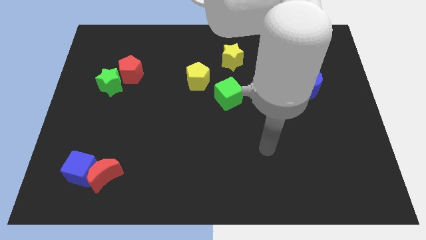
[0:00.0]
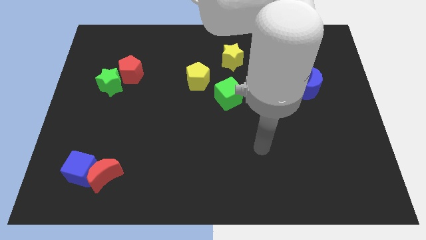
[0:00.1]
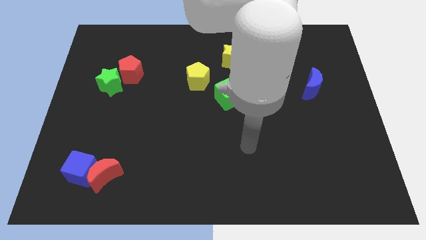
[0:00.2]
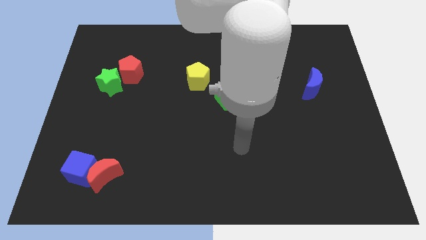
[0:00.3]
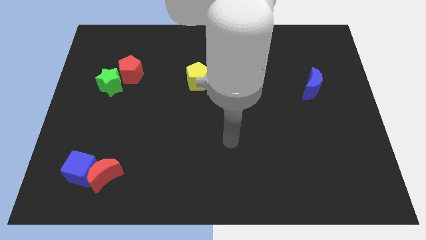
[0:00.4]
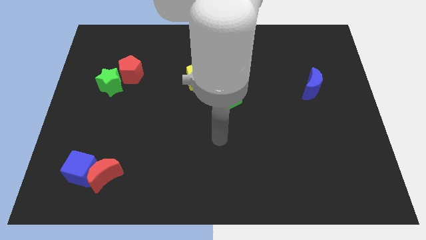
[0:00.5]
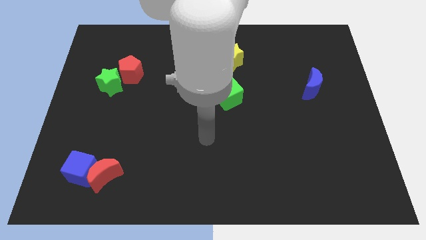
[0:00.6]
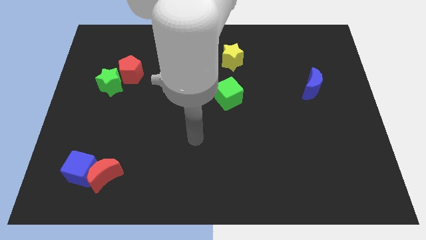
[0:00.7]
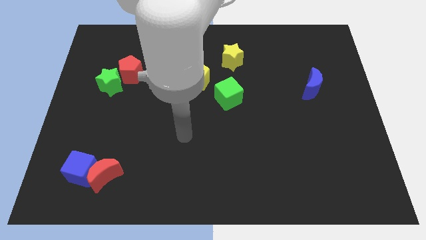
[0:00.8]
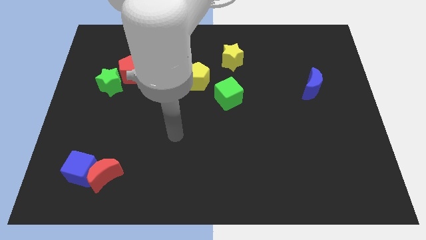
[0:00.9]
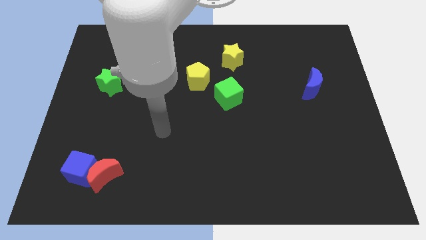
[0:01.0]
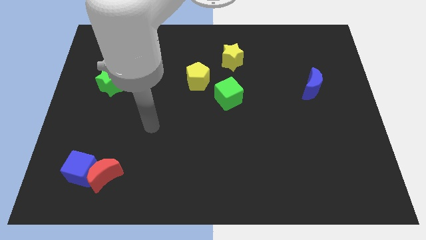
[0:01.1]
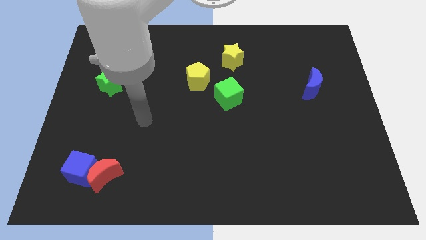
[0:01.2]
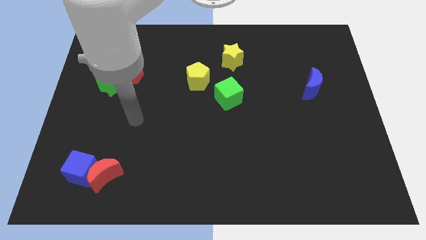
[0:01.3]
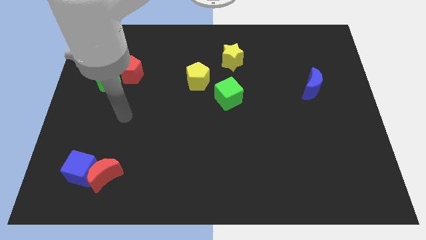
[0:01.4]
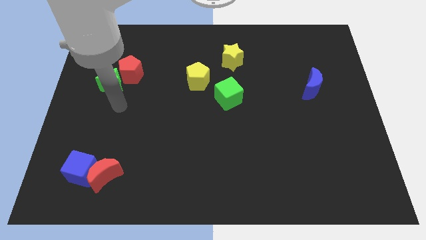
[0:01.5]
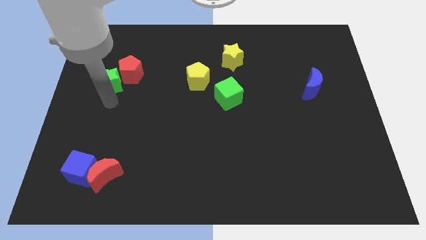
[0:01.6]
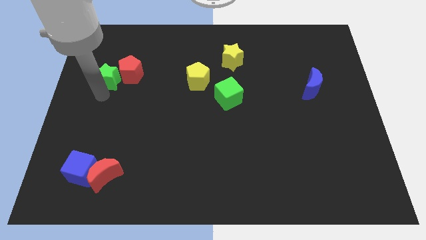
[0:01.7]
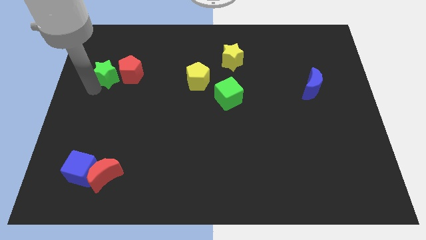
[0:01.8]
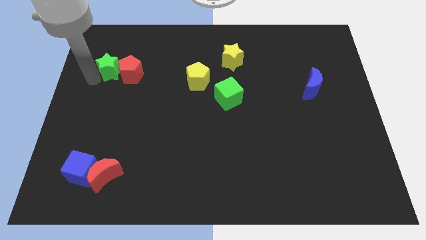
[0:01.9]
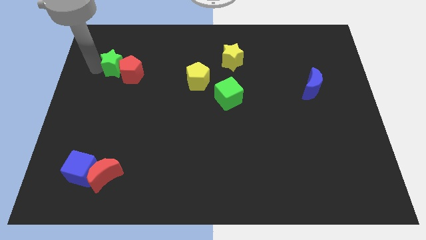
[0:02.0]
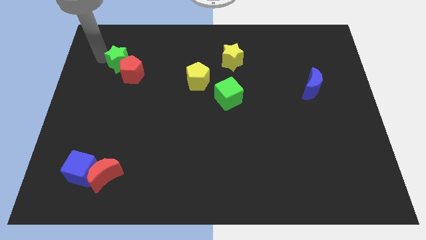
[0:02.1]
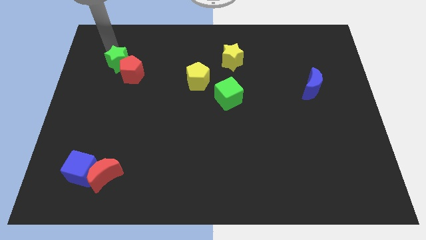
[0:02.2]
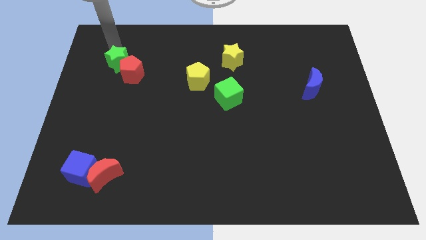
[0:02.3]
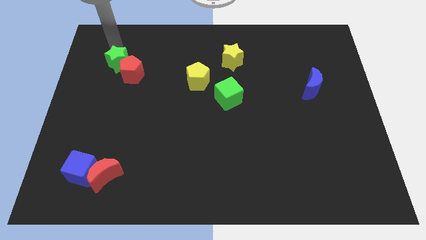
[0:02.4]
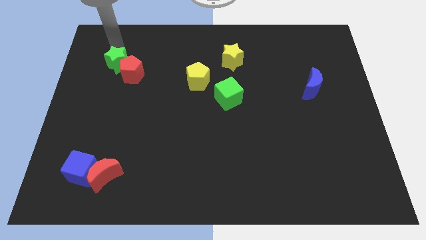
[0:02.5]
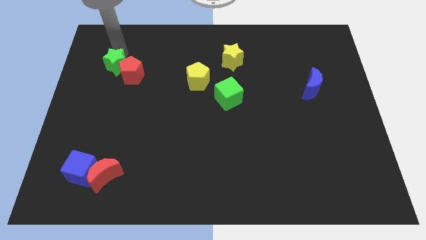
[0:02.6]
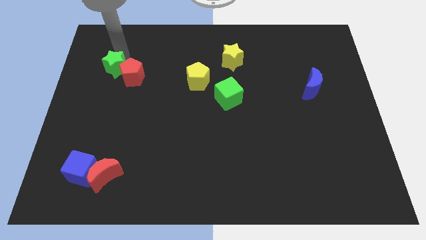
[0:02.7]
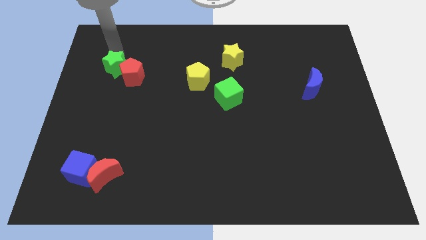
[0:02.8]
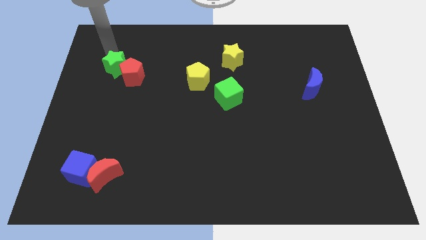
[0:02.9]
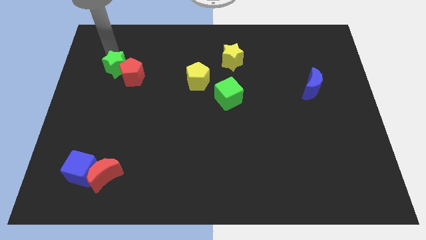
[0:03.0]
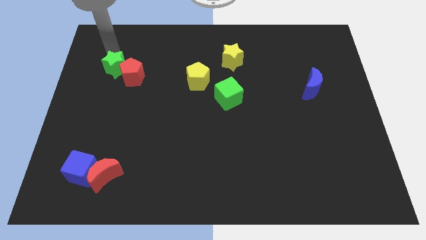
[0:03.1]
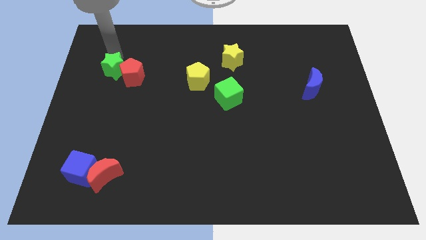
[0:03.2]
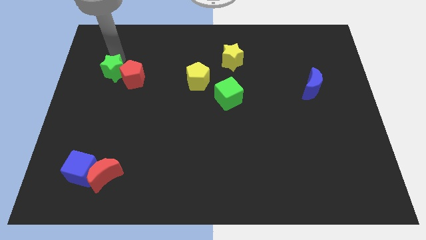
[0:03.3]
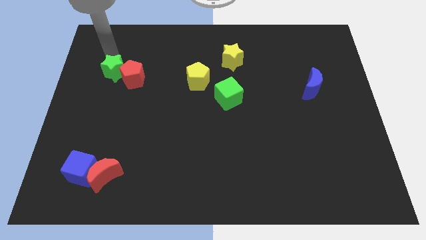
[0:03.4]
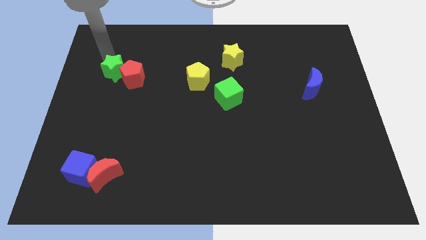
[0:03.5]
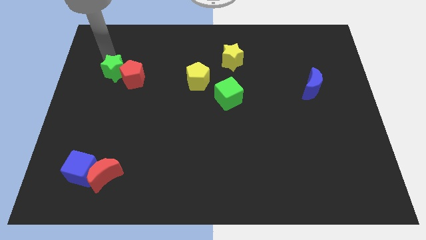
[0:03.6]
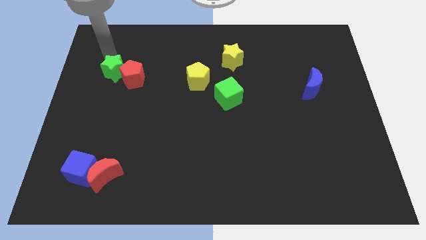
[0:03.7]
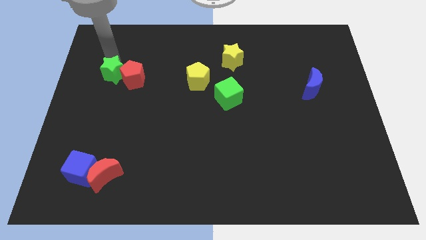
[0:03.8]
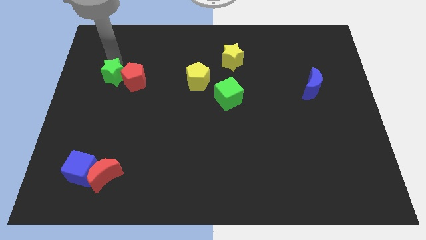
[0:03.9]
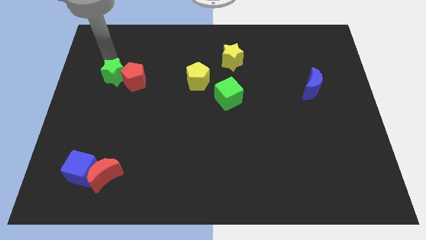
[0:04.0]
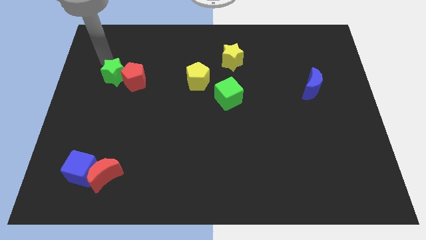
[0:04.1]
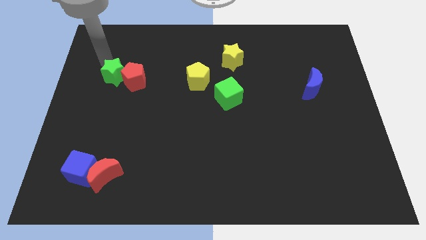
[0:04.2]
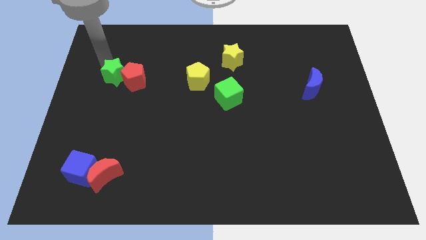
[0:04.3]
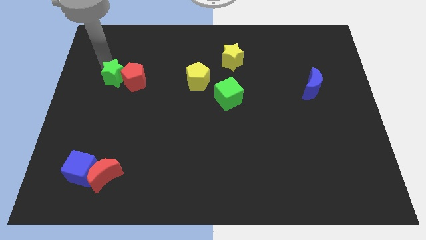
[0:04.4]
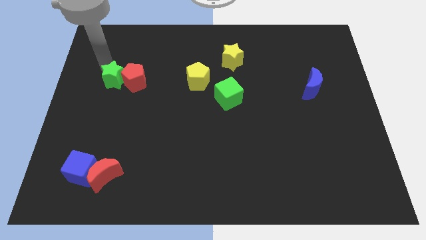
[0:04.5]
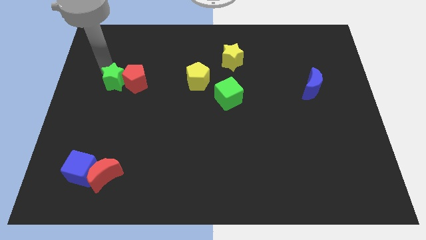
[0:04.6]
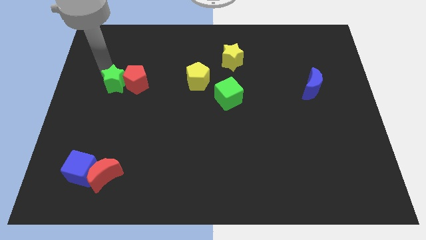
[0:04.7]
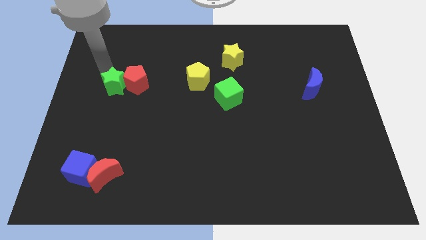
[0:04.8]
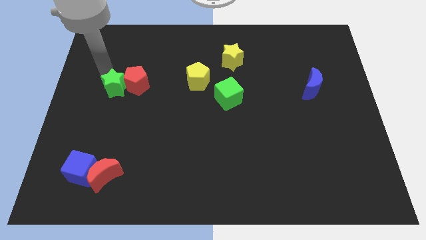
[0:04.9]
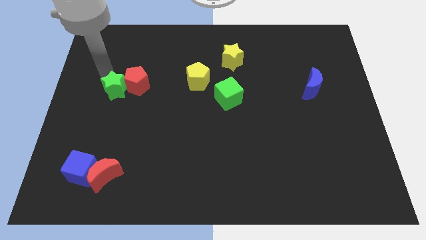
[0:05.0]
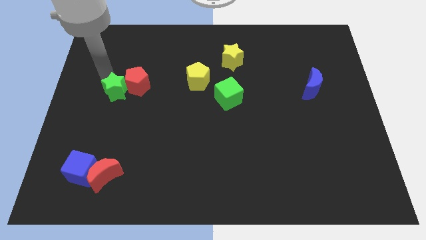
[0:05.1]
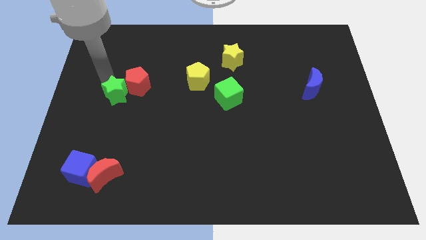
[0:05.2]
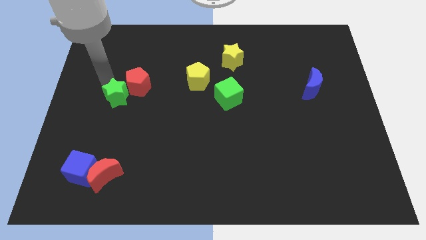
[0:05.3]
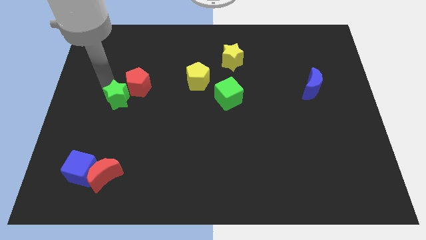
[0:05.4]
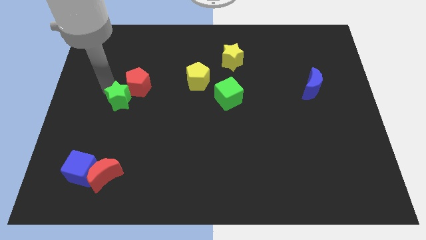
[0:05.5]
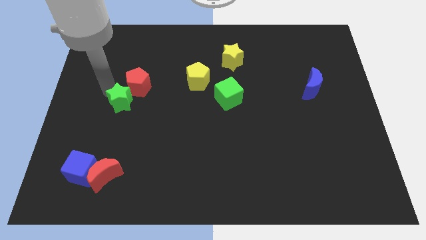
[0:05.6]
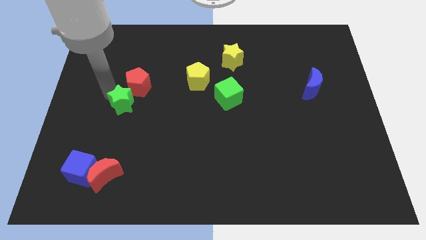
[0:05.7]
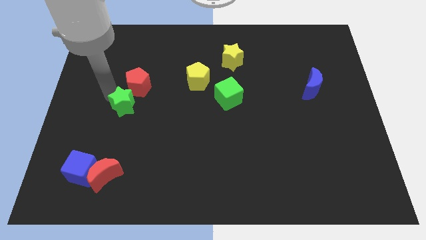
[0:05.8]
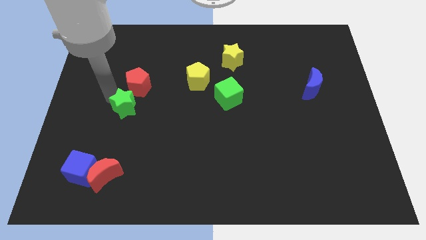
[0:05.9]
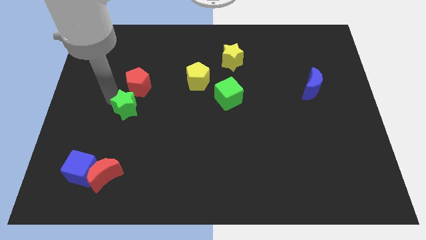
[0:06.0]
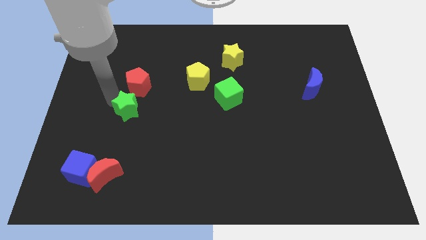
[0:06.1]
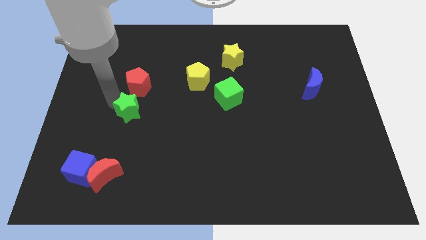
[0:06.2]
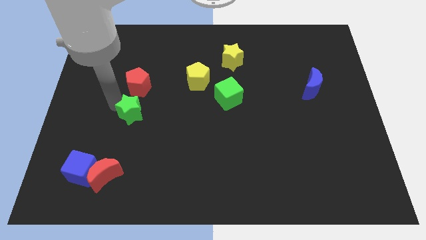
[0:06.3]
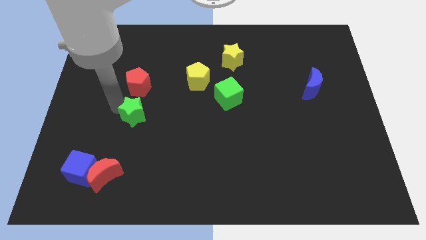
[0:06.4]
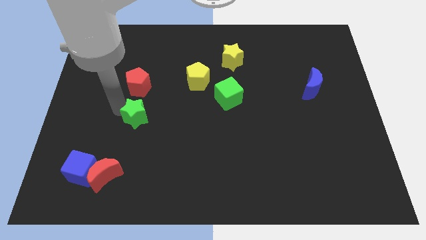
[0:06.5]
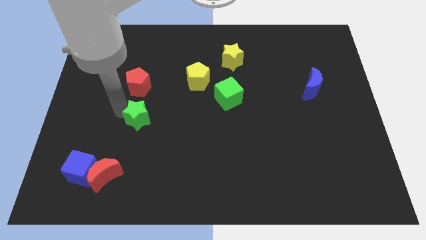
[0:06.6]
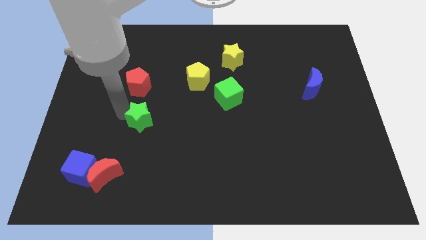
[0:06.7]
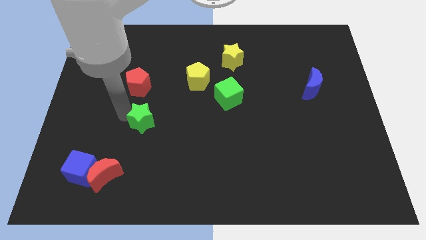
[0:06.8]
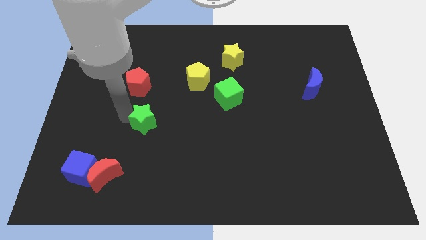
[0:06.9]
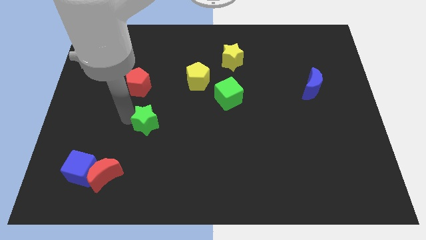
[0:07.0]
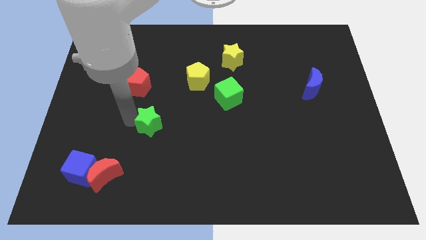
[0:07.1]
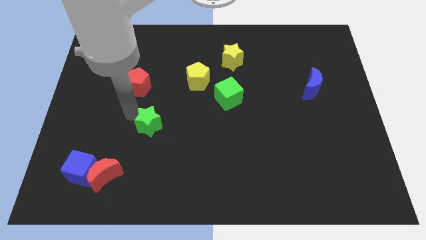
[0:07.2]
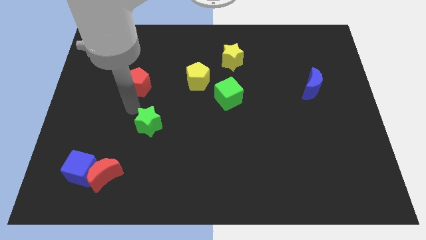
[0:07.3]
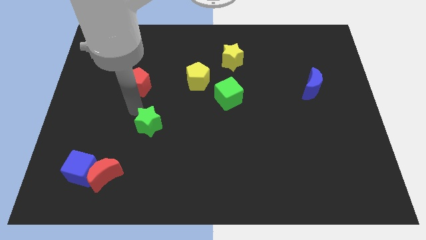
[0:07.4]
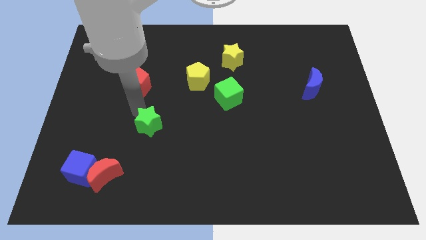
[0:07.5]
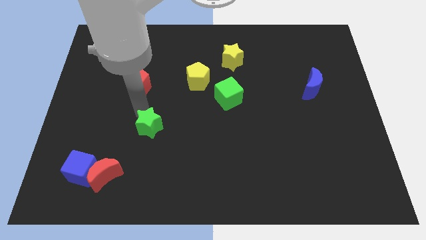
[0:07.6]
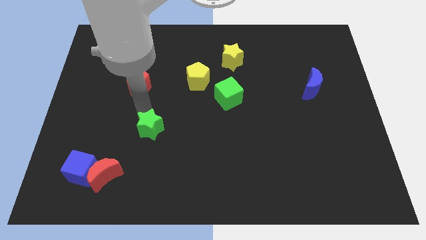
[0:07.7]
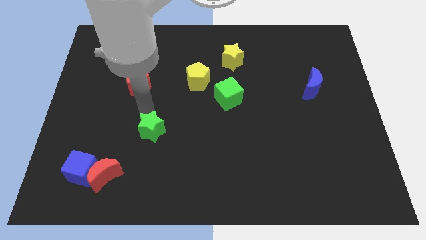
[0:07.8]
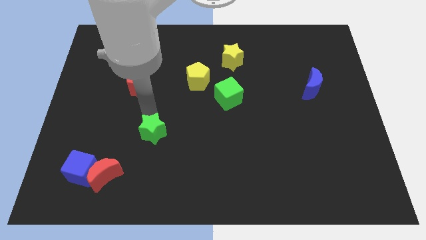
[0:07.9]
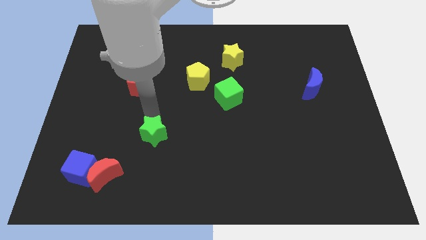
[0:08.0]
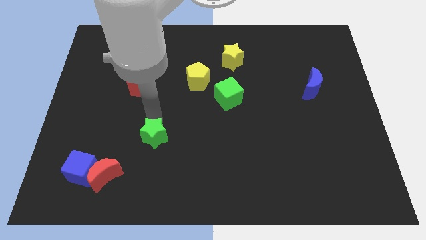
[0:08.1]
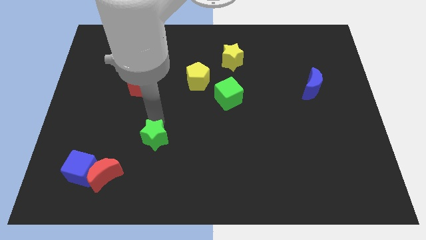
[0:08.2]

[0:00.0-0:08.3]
push the green star down and then to the right

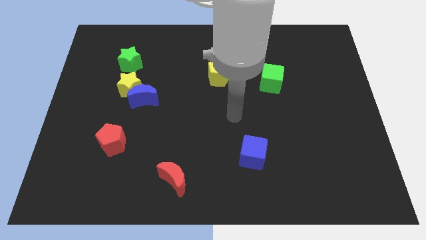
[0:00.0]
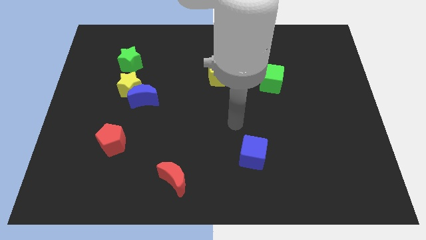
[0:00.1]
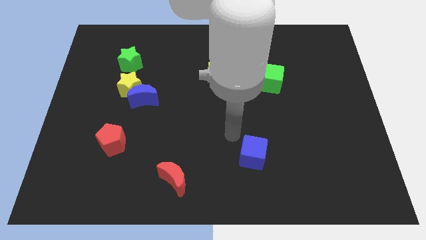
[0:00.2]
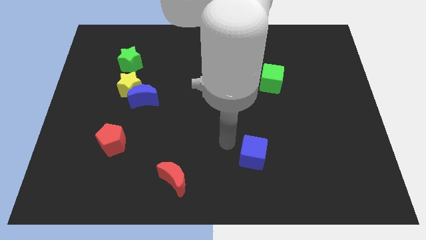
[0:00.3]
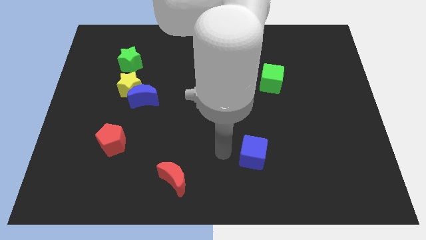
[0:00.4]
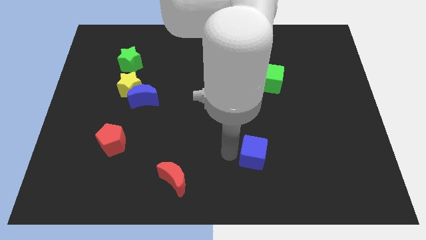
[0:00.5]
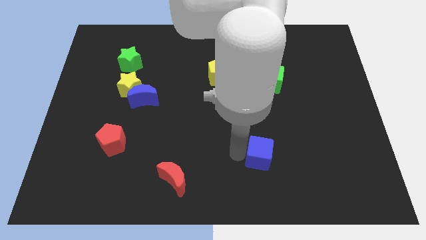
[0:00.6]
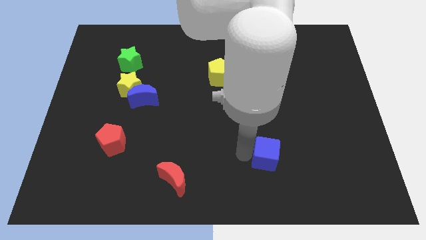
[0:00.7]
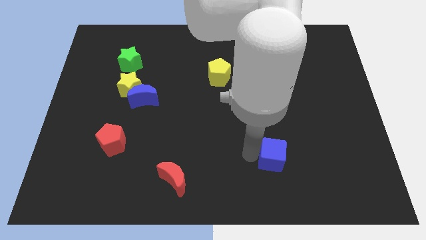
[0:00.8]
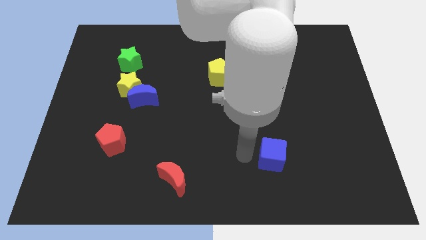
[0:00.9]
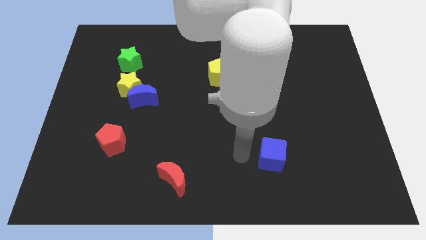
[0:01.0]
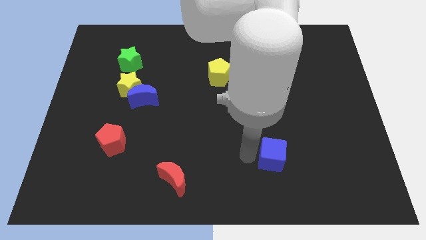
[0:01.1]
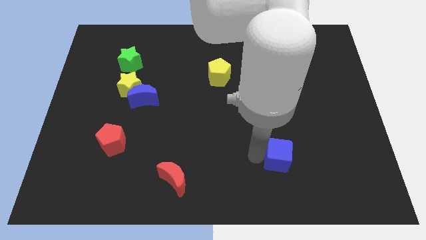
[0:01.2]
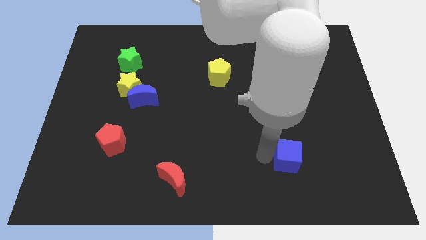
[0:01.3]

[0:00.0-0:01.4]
move the blue cube to the right somewhat
